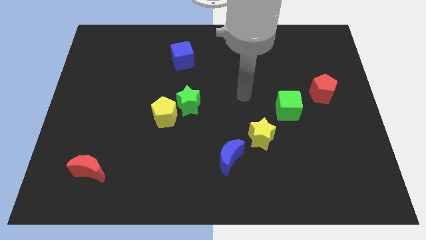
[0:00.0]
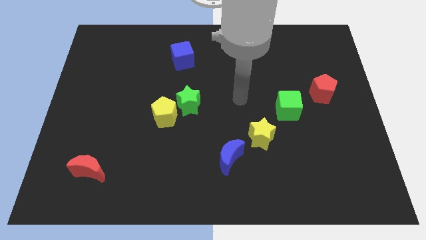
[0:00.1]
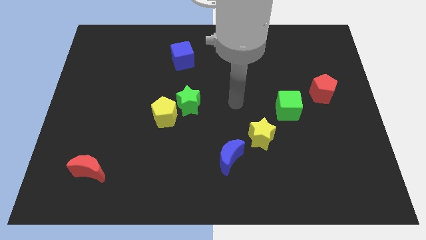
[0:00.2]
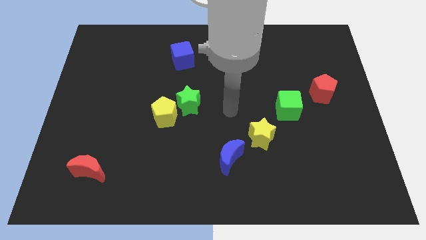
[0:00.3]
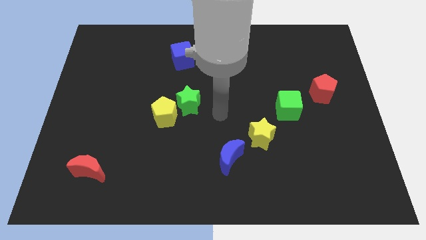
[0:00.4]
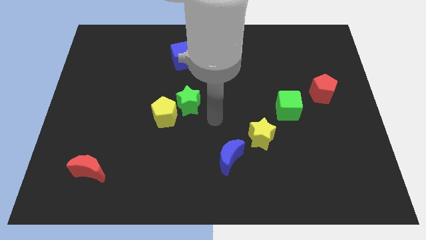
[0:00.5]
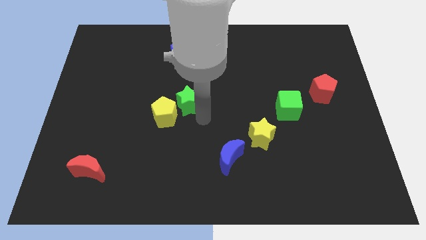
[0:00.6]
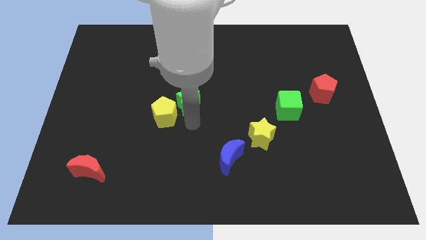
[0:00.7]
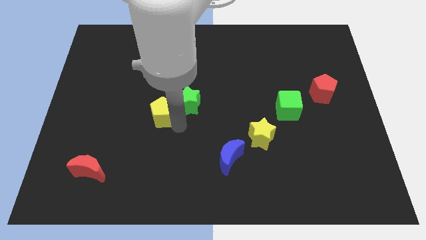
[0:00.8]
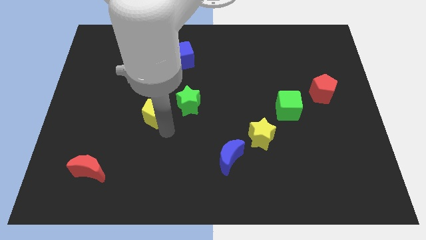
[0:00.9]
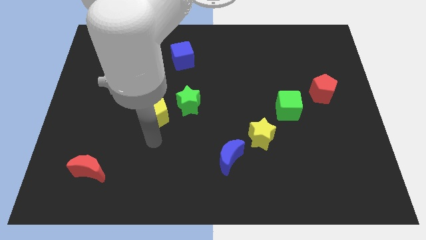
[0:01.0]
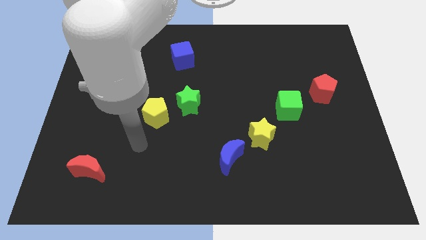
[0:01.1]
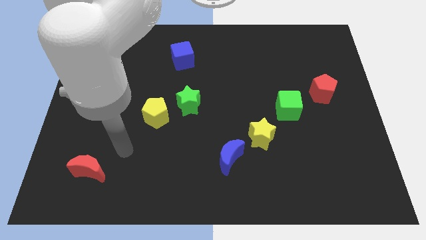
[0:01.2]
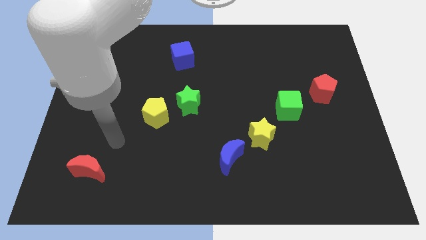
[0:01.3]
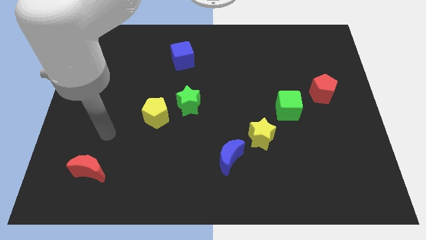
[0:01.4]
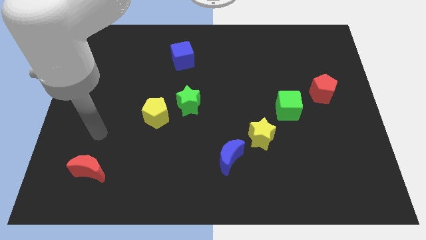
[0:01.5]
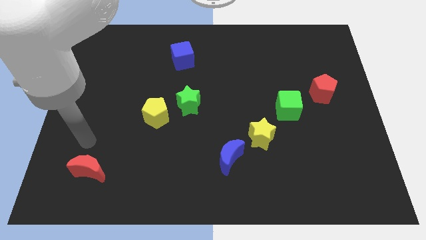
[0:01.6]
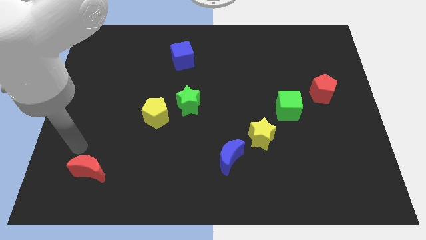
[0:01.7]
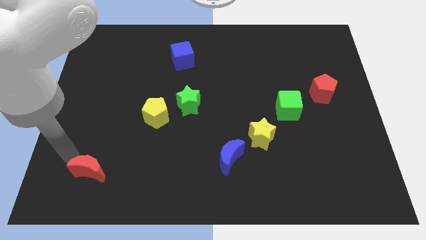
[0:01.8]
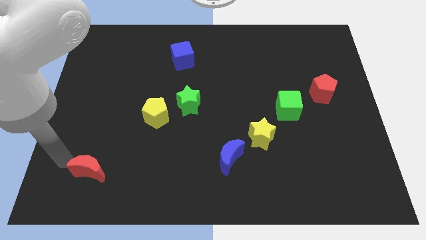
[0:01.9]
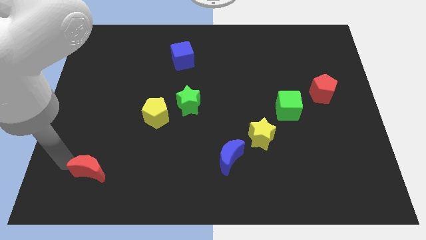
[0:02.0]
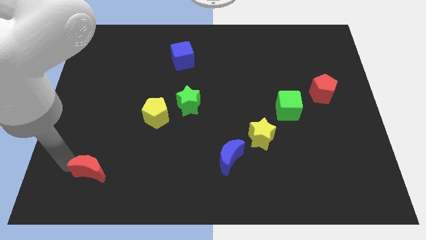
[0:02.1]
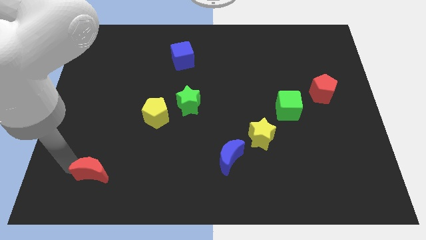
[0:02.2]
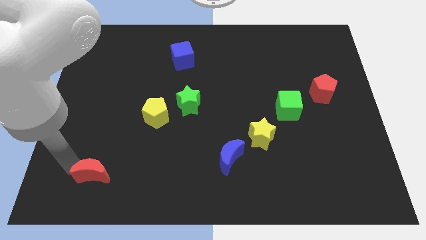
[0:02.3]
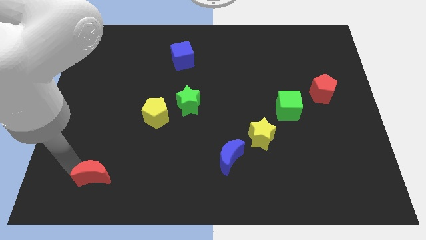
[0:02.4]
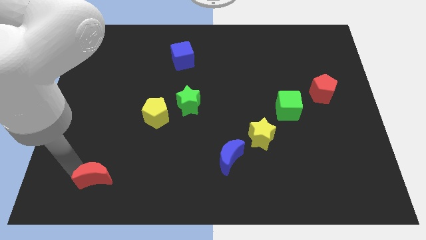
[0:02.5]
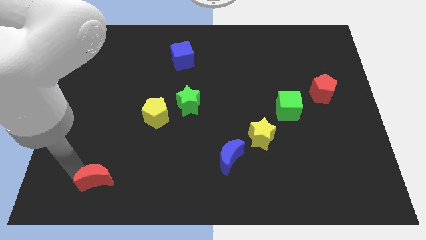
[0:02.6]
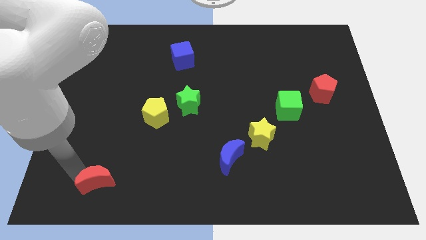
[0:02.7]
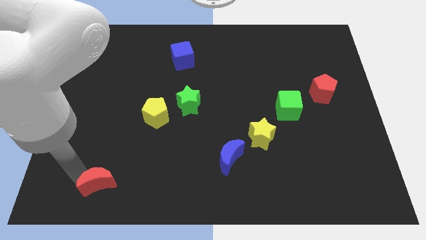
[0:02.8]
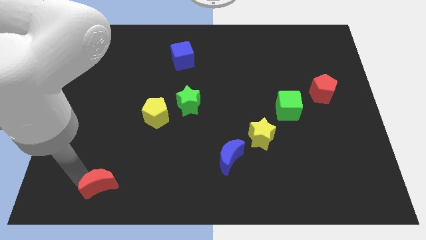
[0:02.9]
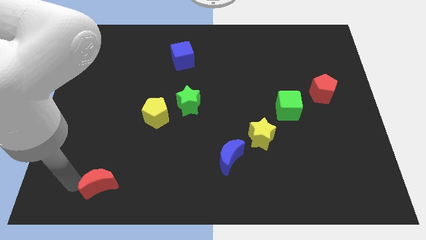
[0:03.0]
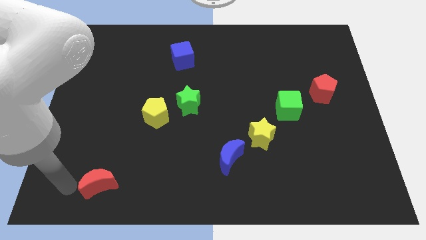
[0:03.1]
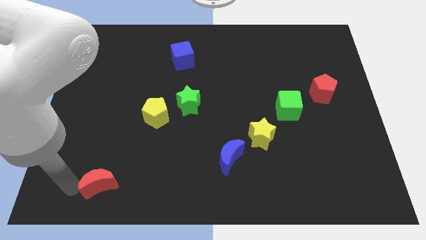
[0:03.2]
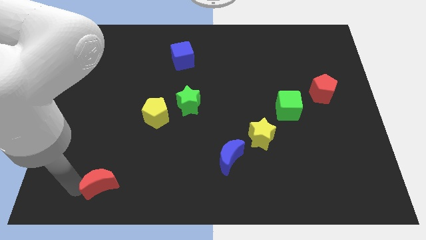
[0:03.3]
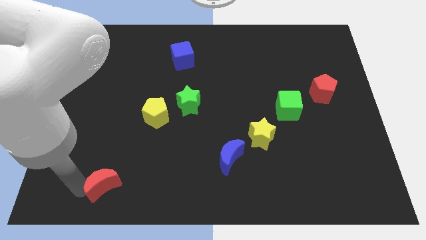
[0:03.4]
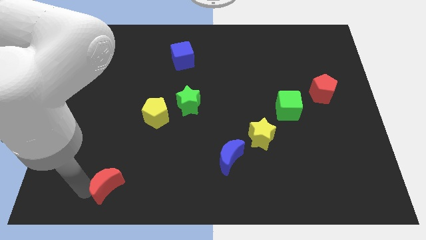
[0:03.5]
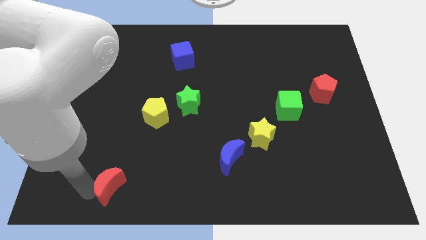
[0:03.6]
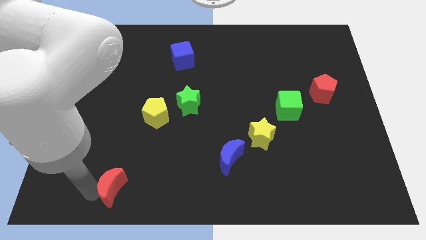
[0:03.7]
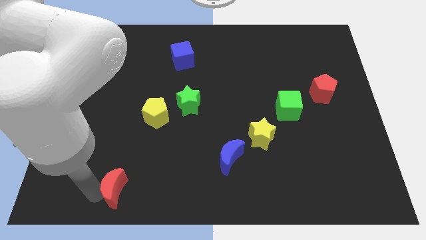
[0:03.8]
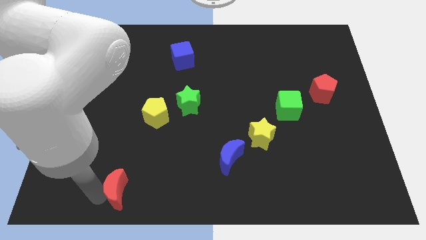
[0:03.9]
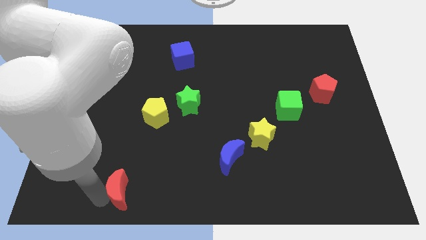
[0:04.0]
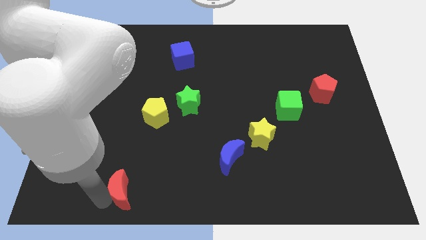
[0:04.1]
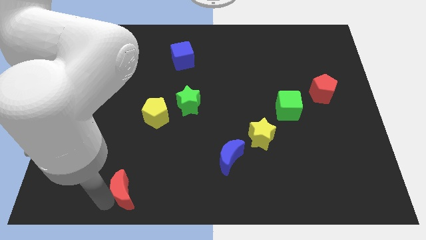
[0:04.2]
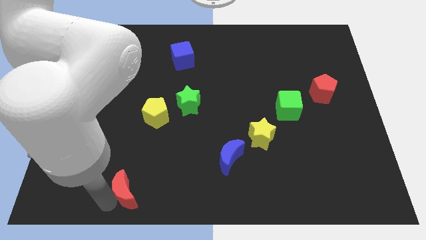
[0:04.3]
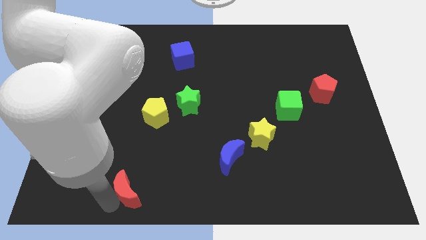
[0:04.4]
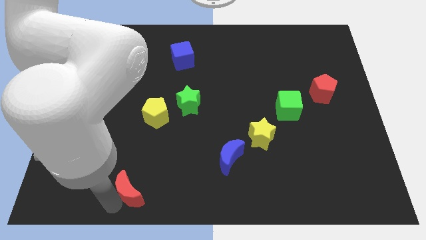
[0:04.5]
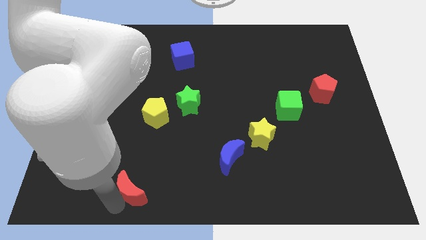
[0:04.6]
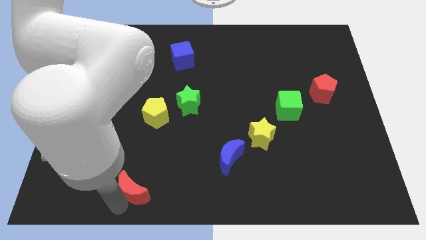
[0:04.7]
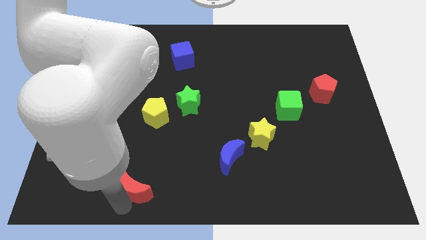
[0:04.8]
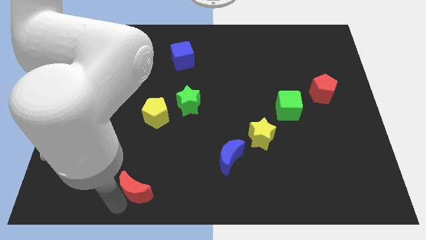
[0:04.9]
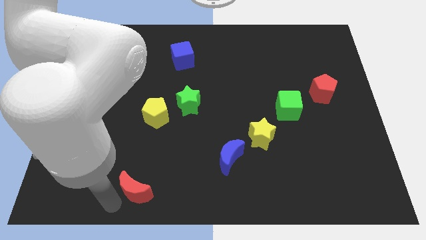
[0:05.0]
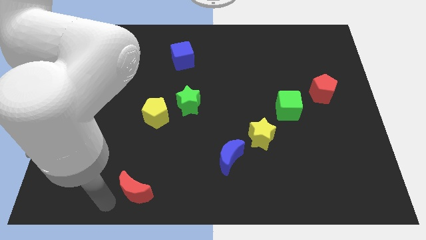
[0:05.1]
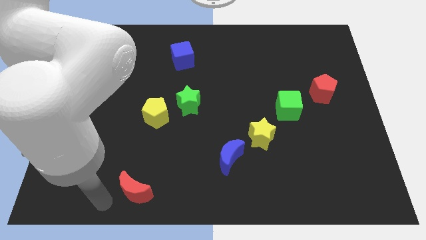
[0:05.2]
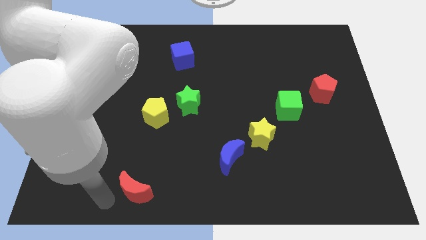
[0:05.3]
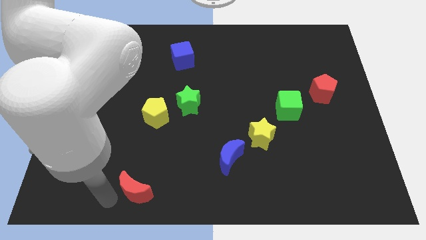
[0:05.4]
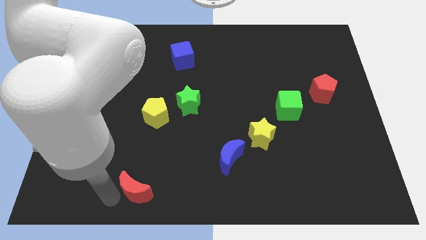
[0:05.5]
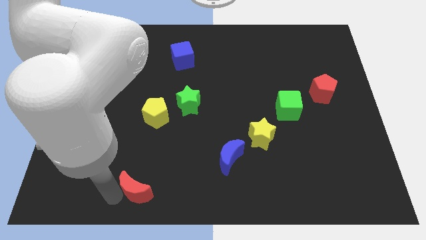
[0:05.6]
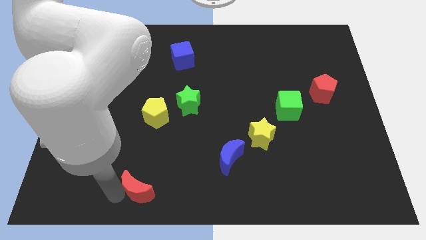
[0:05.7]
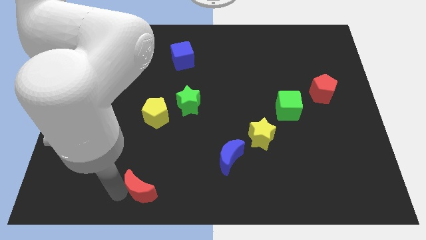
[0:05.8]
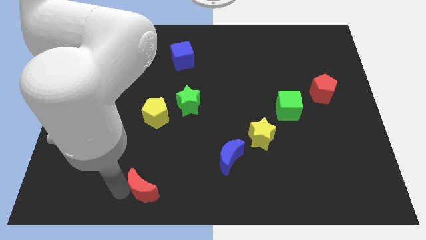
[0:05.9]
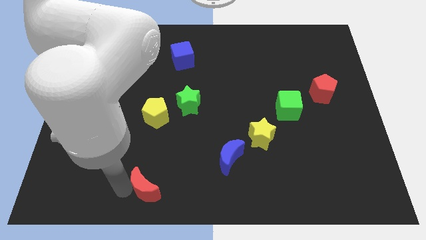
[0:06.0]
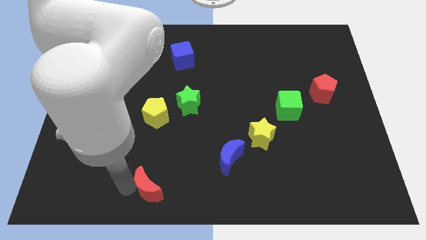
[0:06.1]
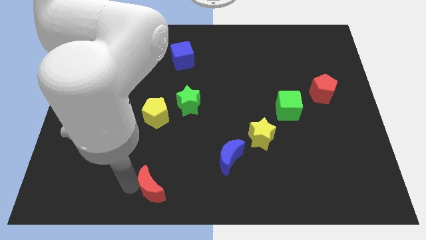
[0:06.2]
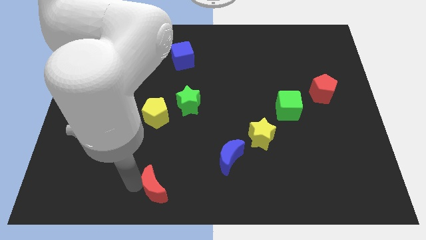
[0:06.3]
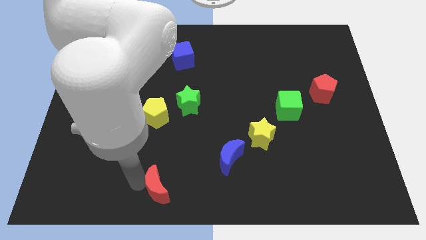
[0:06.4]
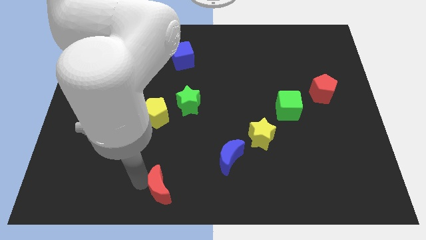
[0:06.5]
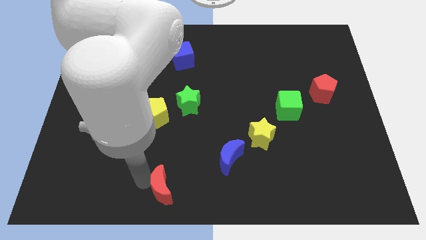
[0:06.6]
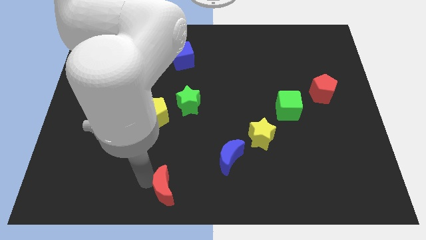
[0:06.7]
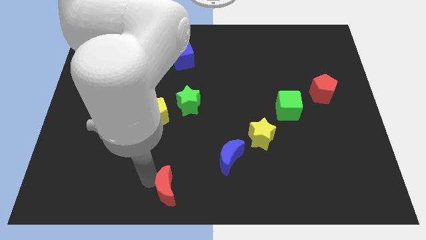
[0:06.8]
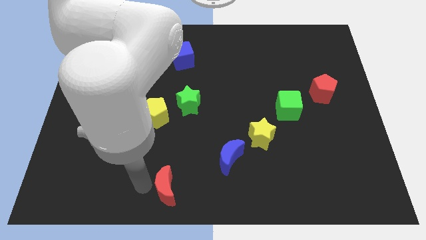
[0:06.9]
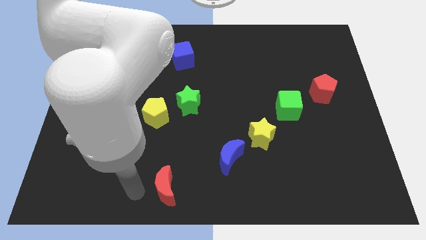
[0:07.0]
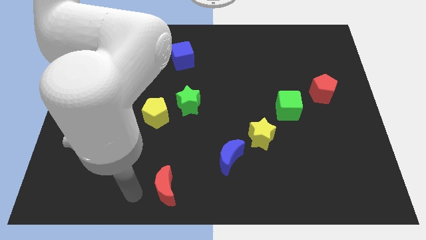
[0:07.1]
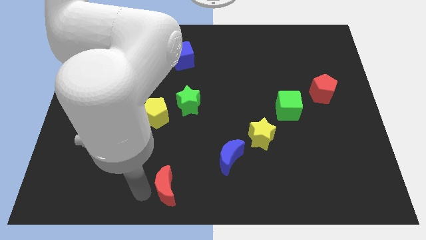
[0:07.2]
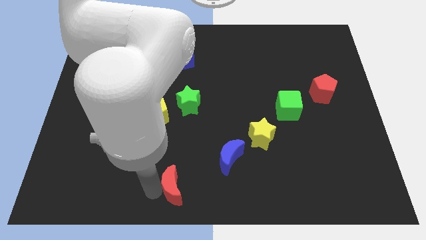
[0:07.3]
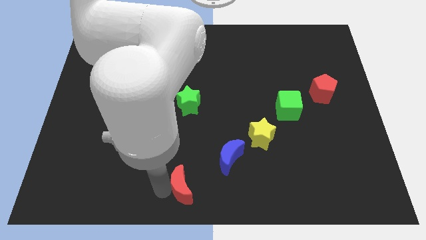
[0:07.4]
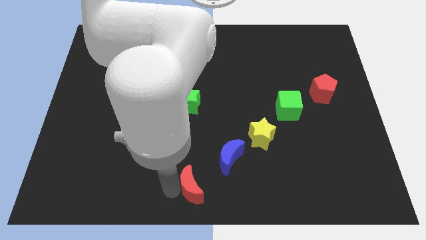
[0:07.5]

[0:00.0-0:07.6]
move the red moon right

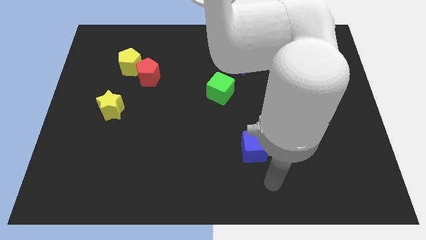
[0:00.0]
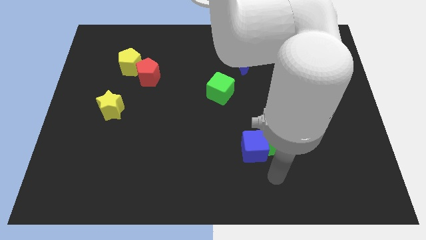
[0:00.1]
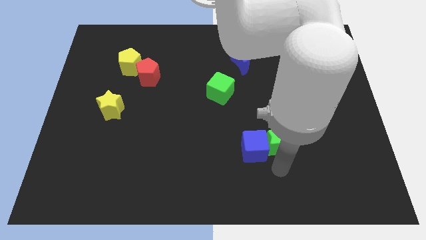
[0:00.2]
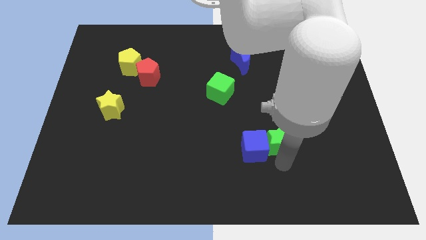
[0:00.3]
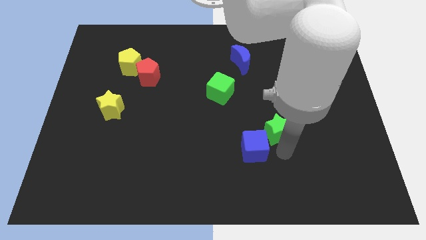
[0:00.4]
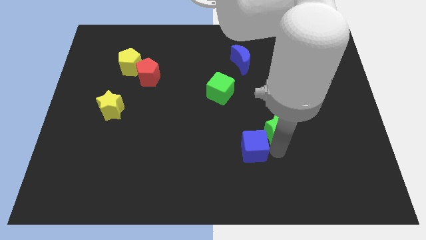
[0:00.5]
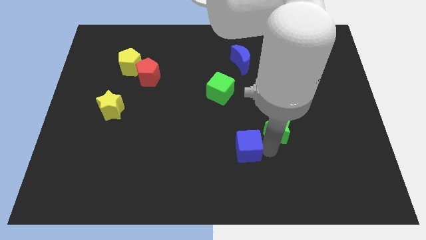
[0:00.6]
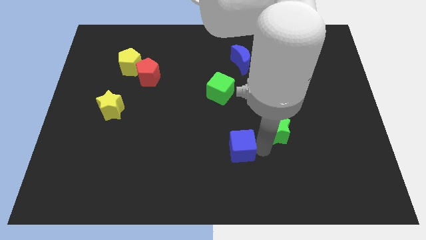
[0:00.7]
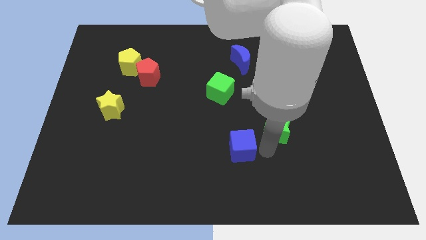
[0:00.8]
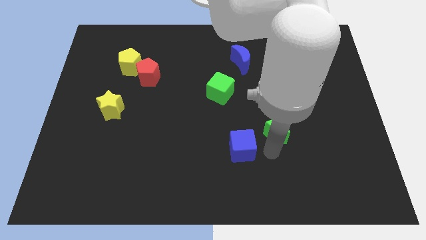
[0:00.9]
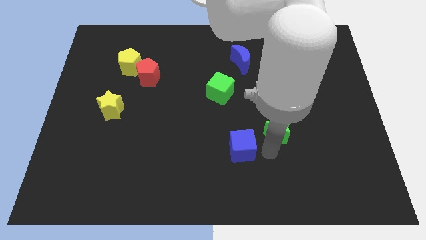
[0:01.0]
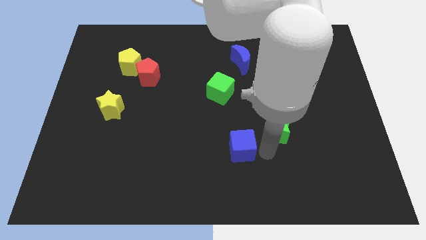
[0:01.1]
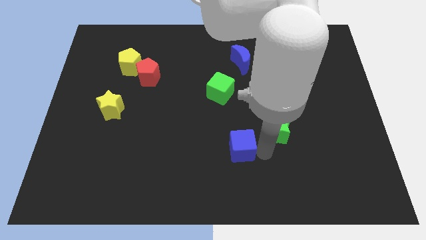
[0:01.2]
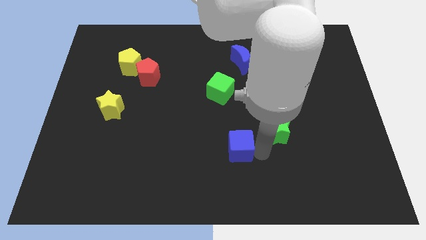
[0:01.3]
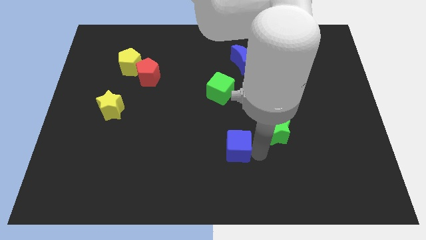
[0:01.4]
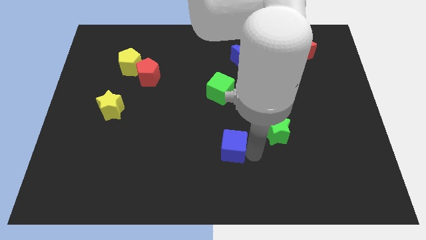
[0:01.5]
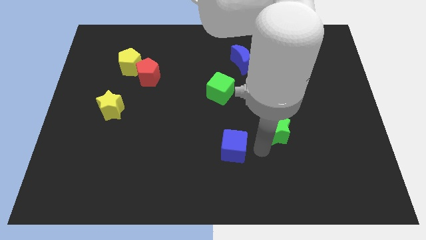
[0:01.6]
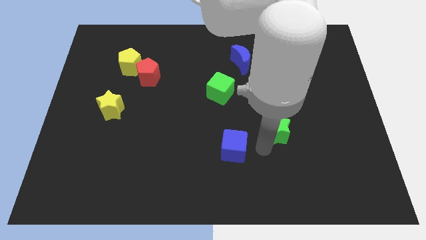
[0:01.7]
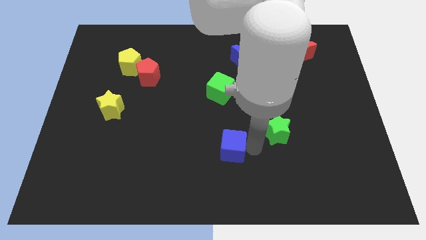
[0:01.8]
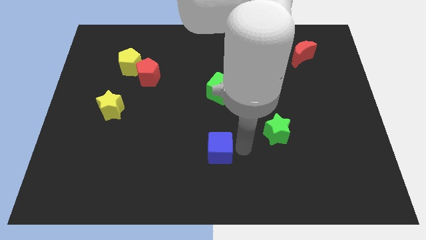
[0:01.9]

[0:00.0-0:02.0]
slightly push the blue cube left
